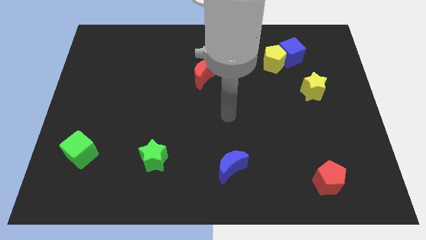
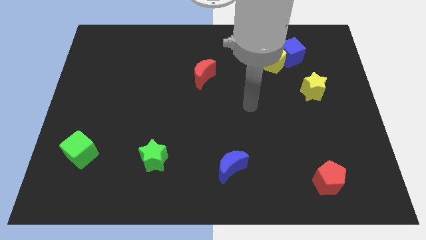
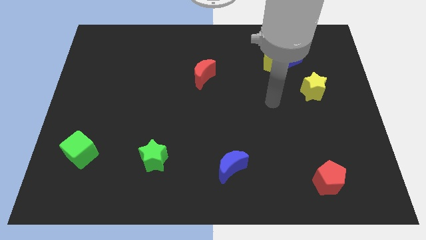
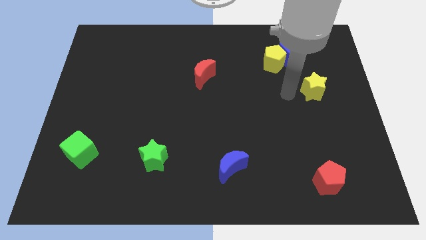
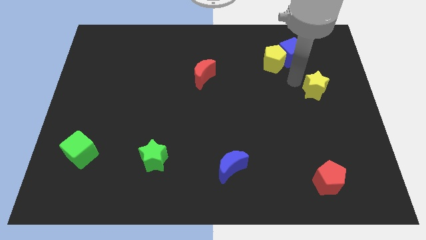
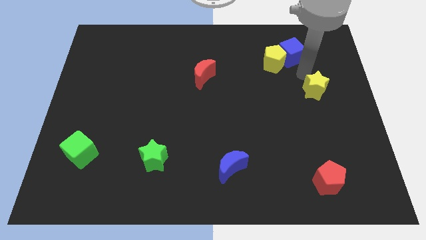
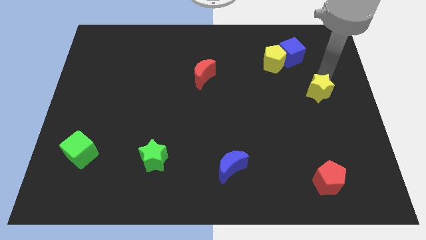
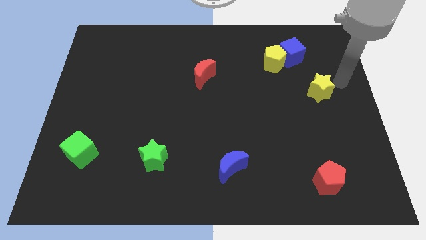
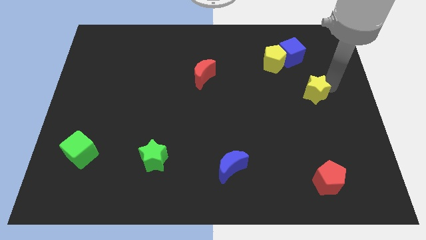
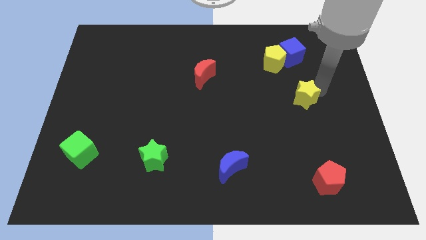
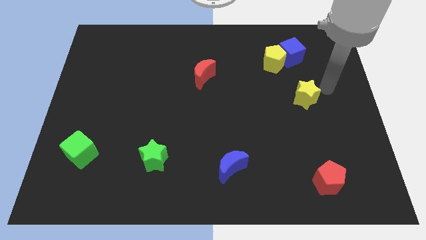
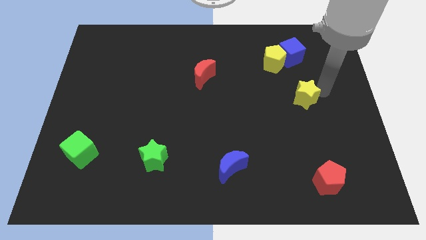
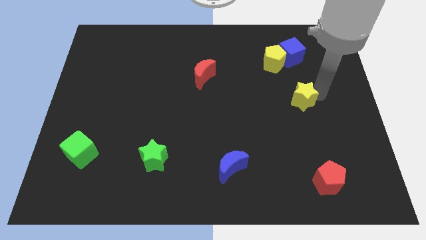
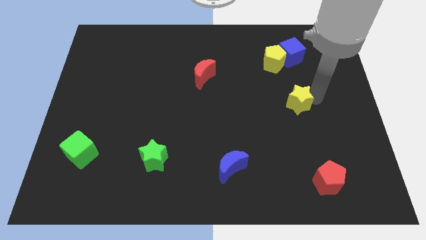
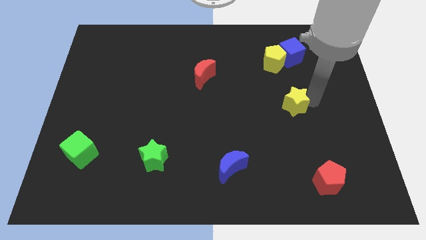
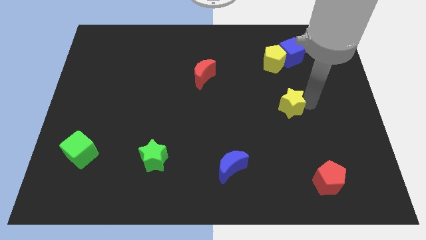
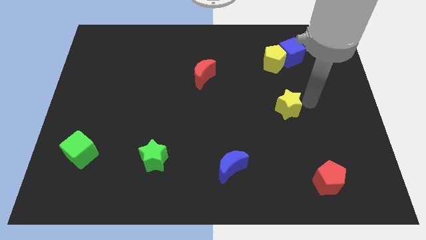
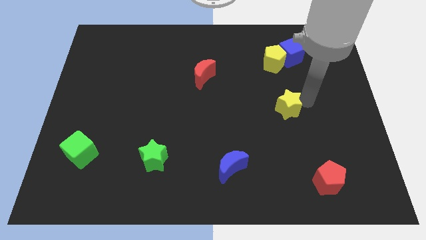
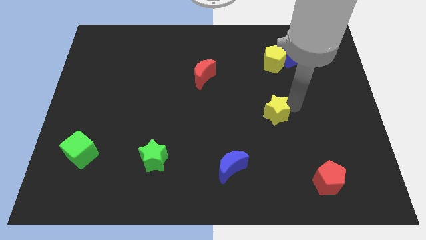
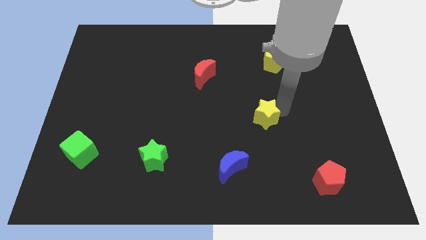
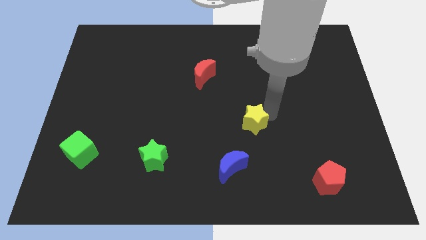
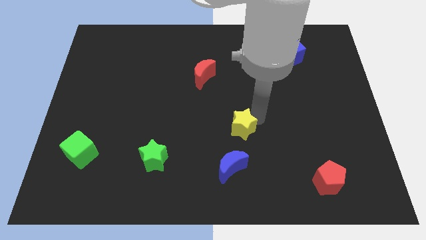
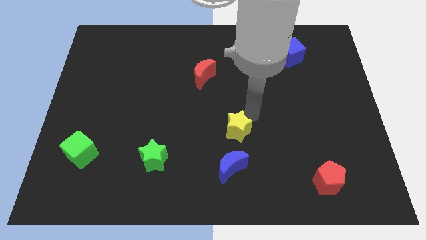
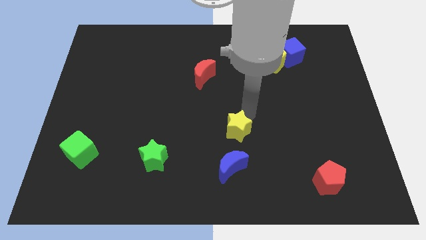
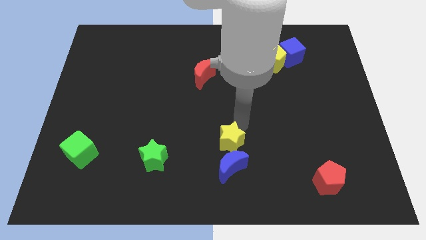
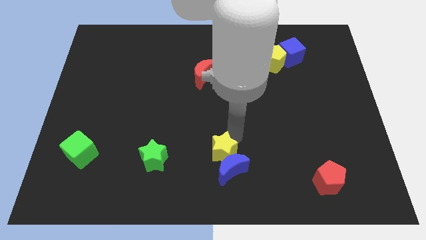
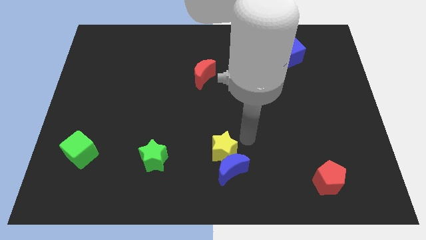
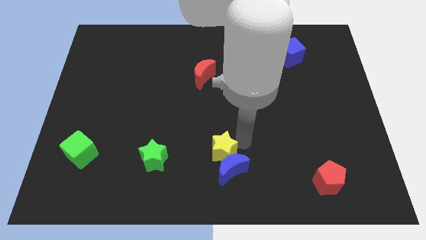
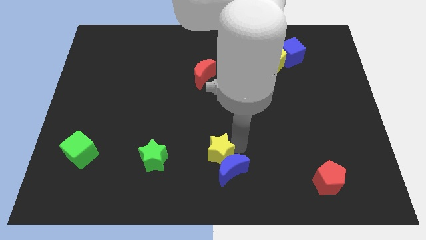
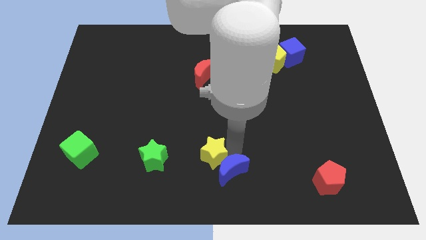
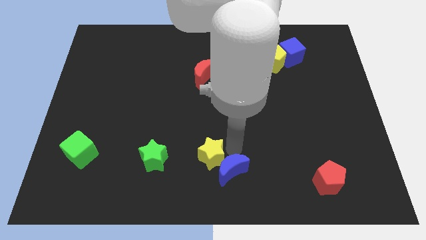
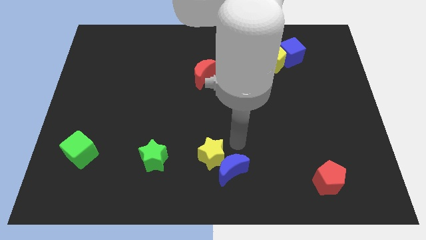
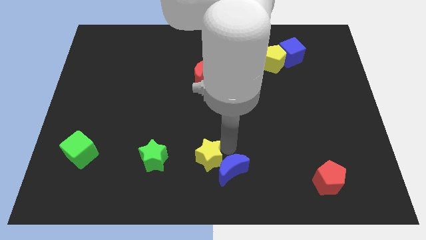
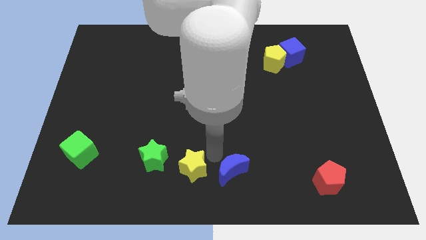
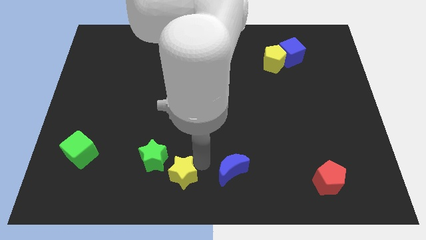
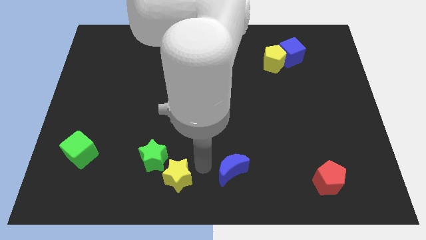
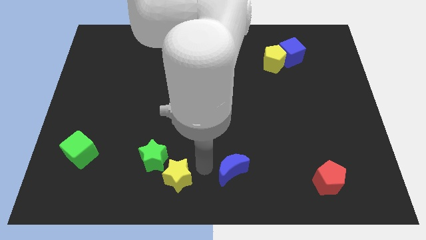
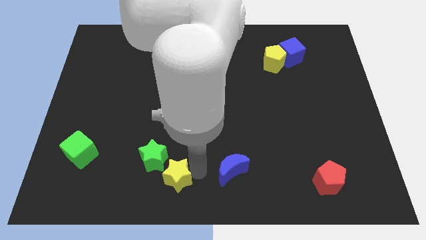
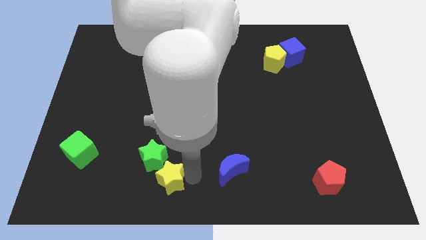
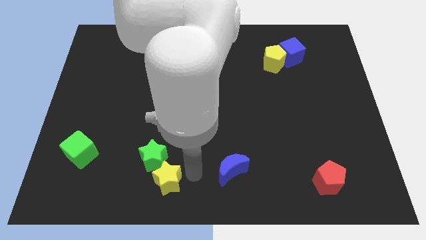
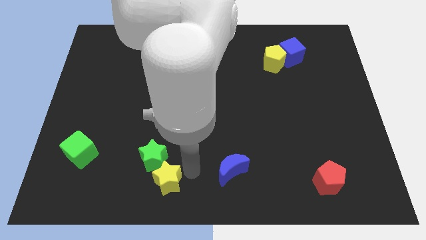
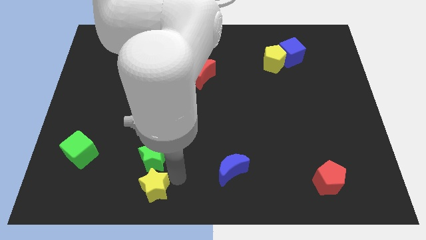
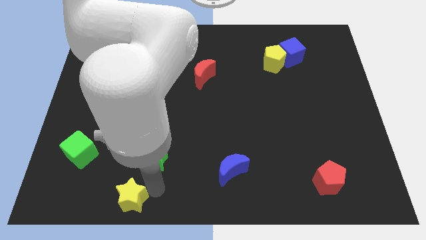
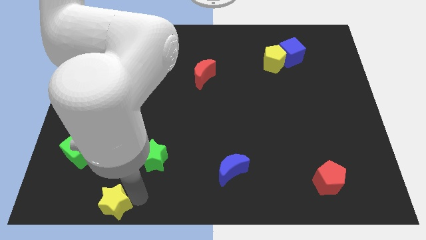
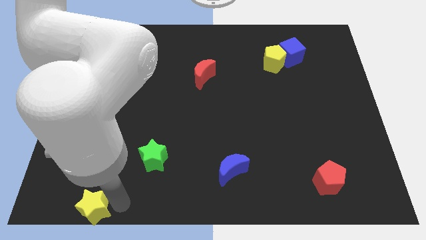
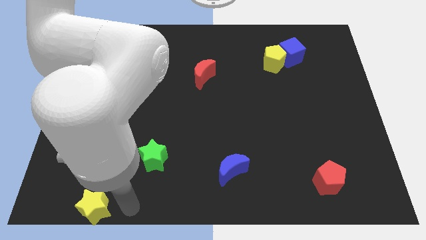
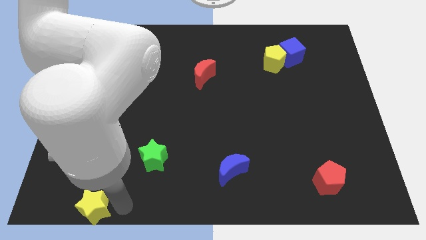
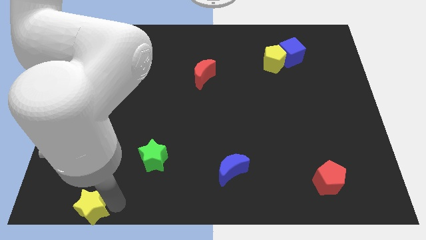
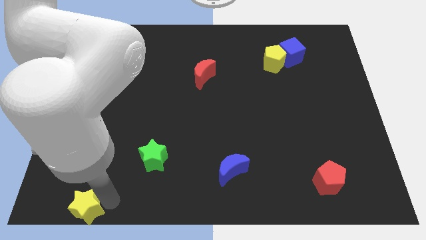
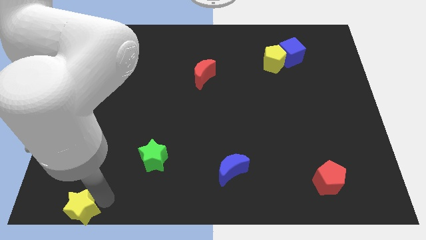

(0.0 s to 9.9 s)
put the yellow star to the bottom left

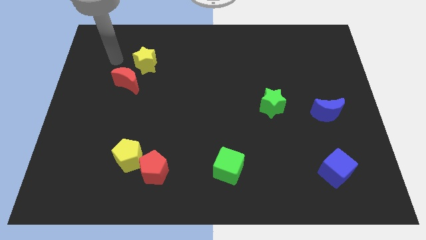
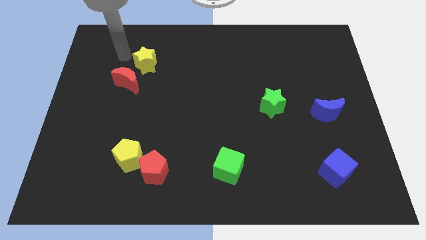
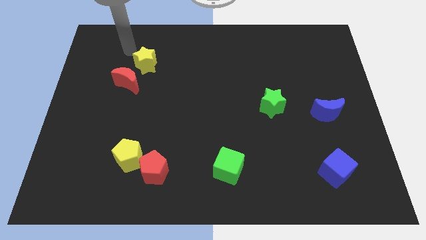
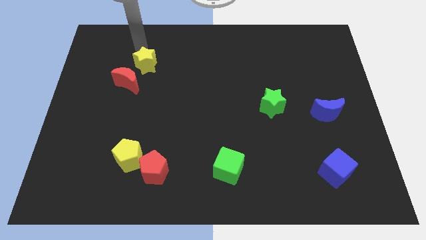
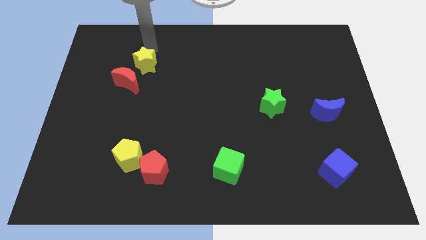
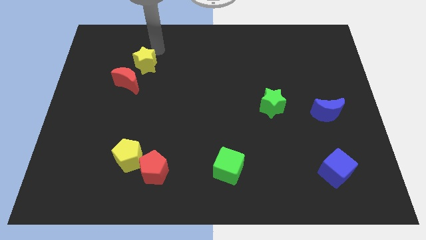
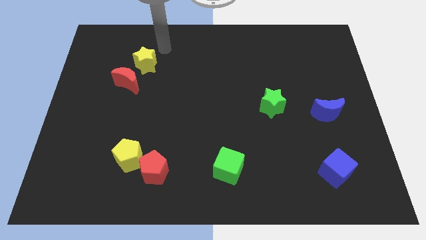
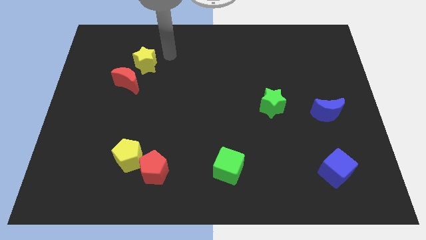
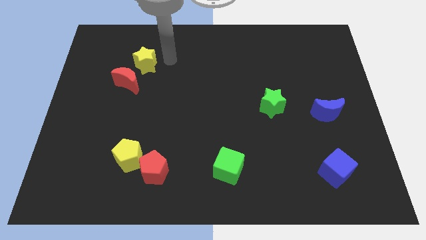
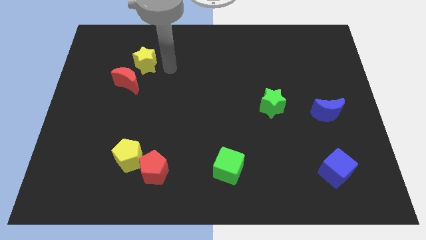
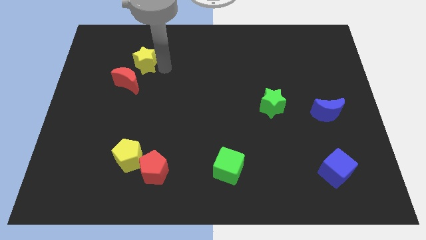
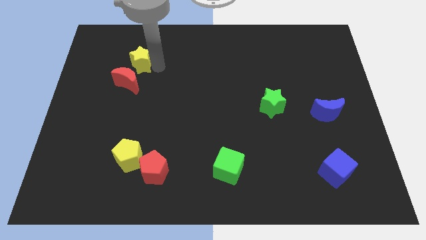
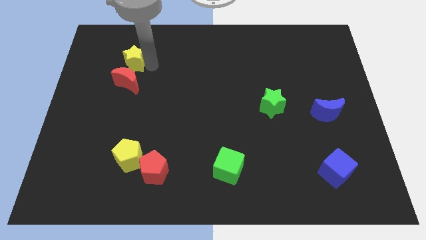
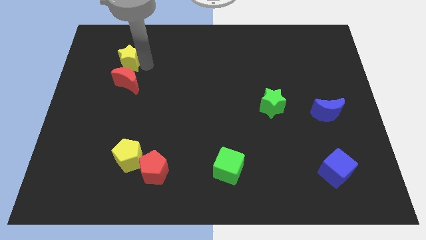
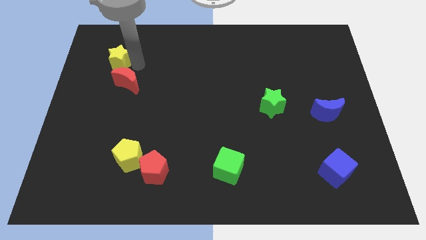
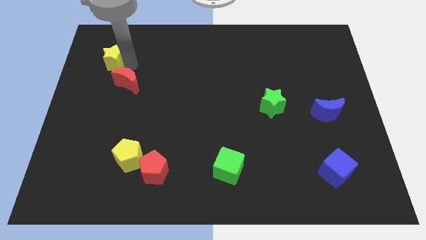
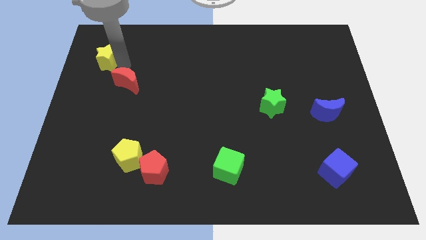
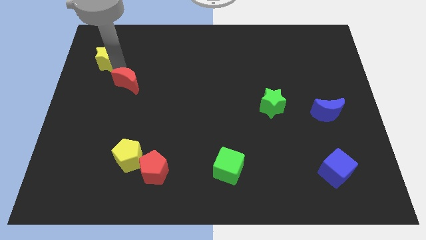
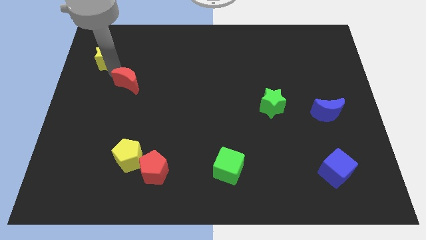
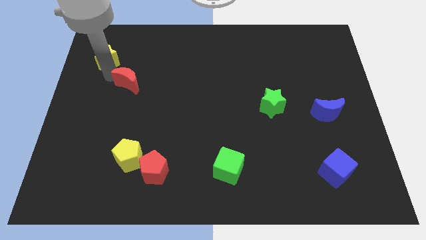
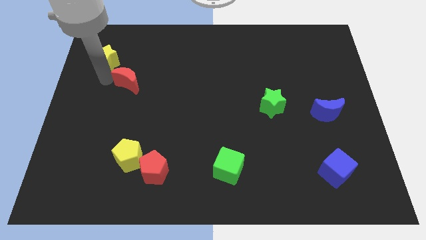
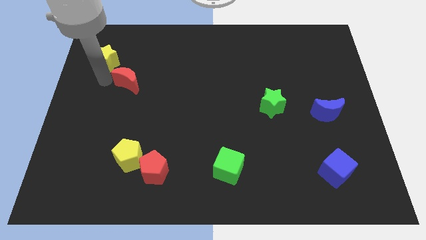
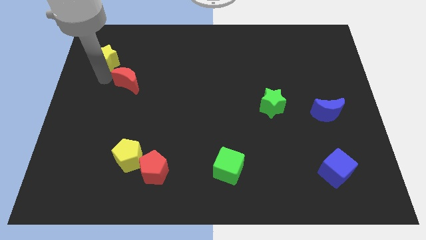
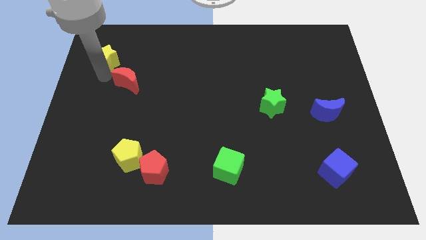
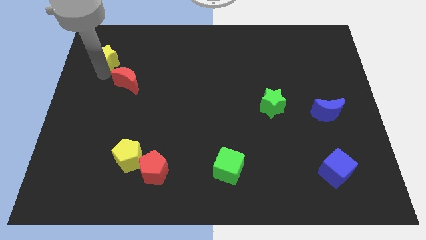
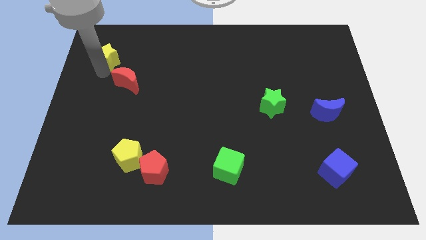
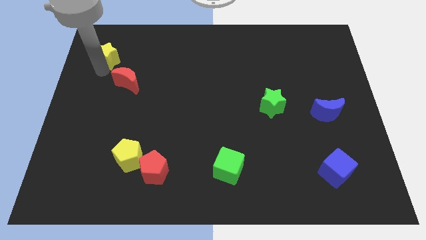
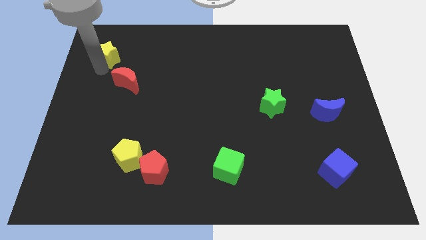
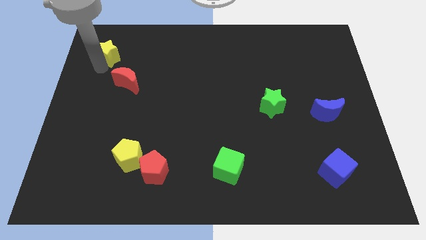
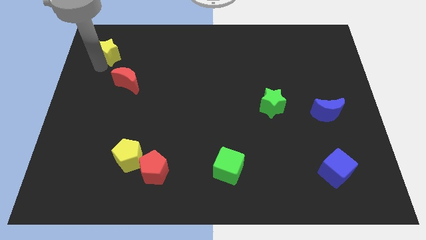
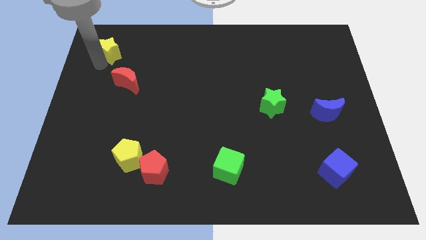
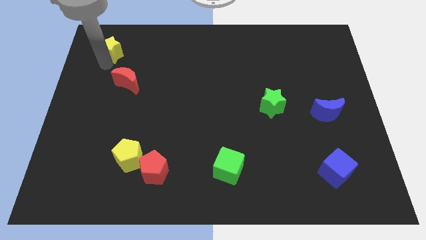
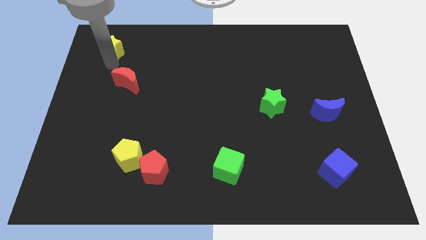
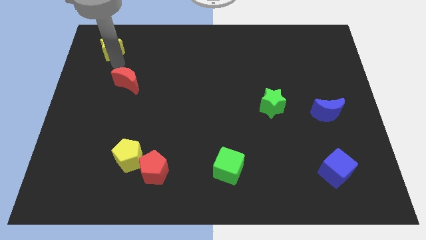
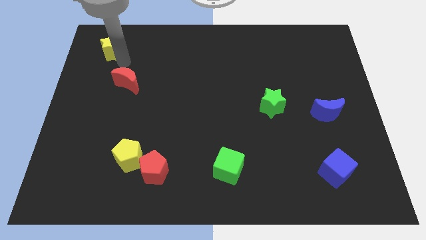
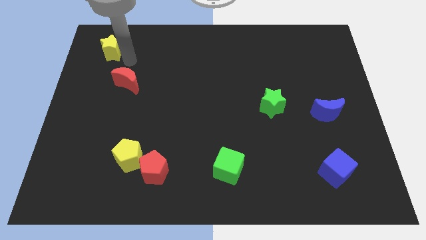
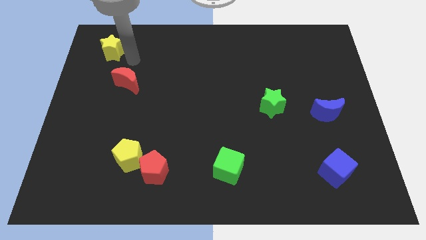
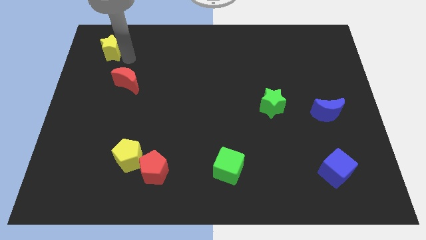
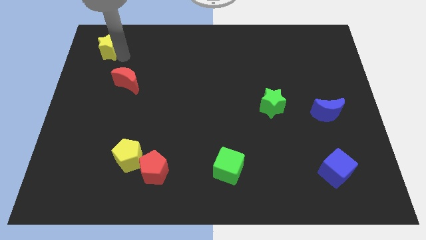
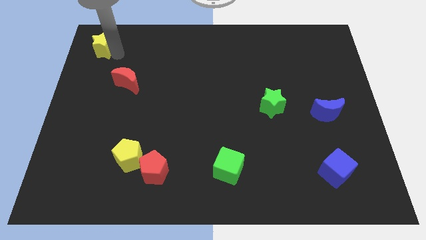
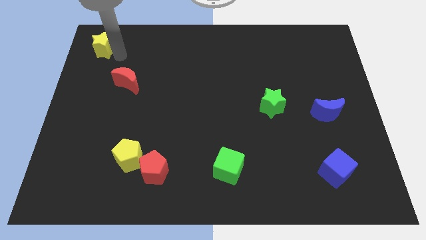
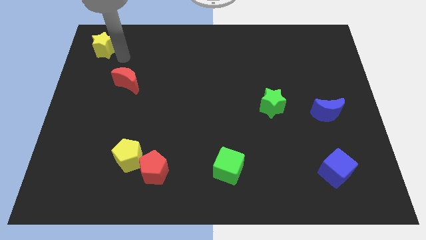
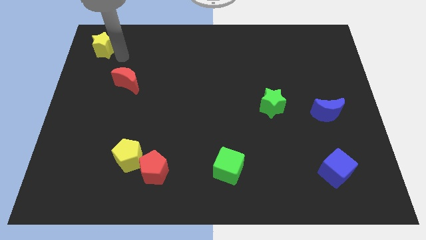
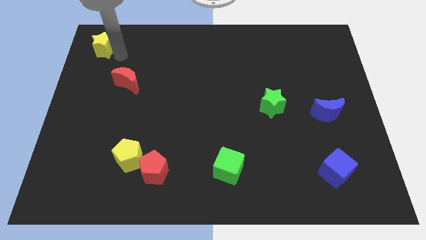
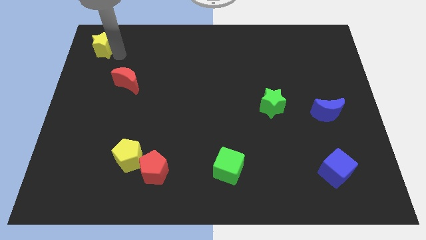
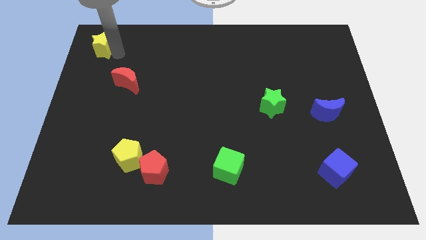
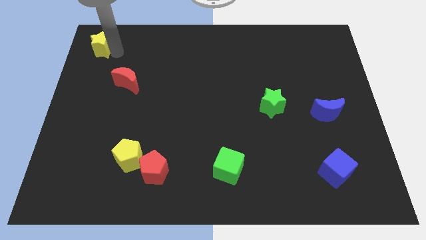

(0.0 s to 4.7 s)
move the yellow star to the top left of the board
